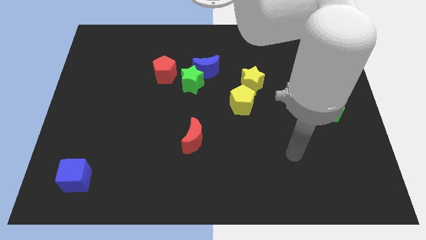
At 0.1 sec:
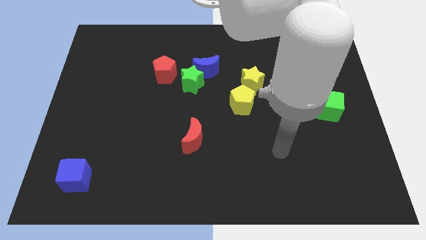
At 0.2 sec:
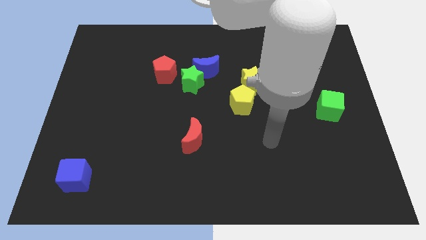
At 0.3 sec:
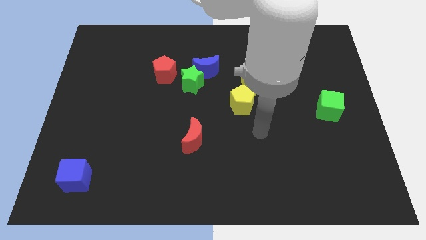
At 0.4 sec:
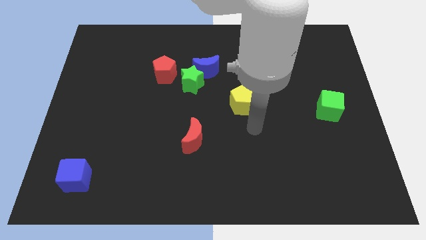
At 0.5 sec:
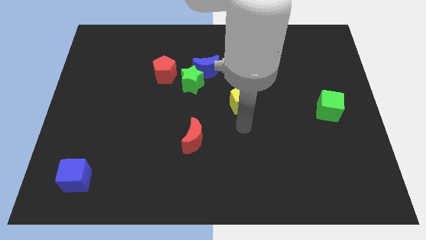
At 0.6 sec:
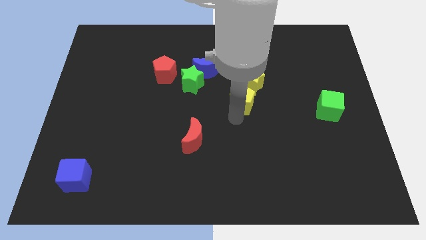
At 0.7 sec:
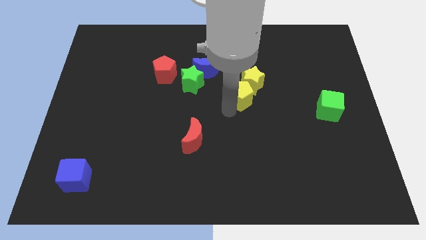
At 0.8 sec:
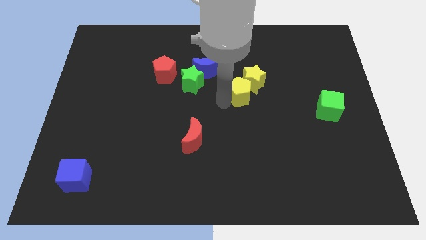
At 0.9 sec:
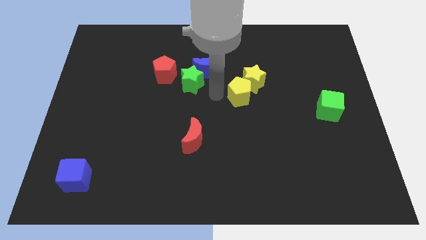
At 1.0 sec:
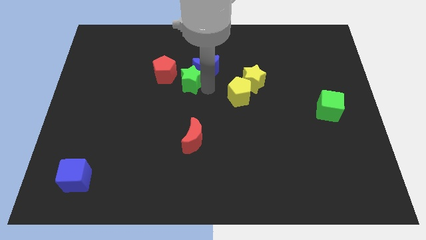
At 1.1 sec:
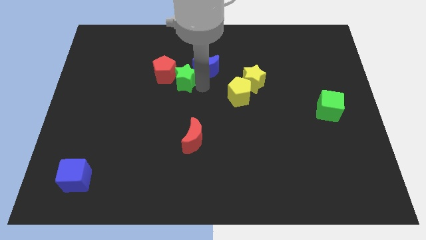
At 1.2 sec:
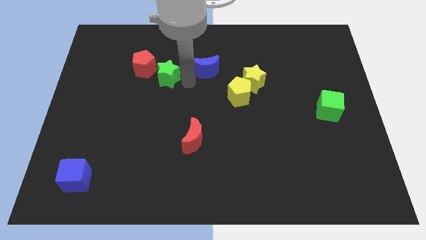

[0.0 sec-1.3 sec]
move the blue moon away from the green star

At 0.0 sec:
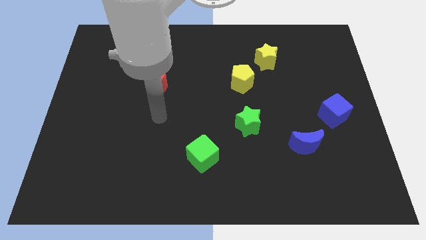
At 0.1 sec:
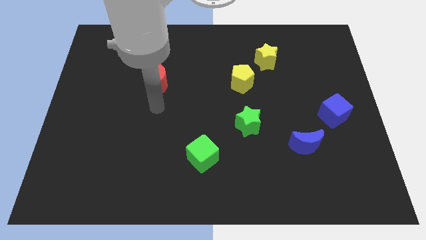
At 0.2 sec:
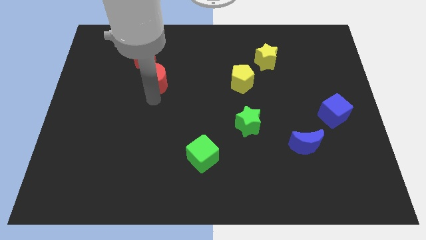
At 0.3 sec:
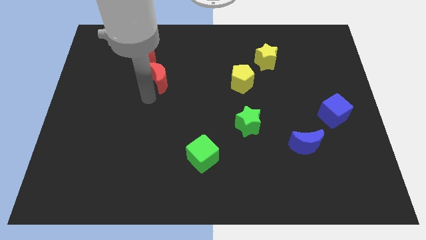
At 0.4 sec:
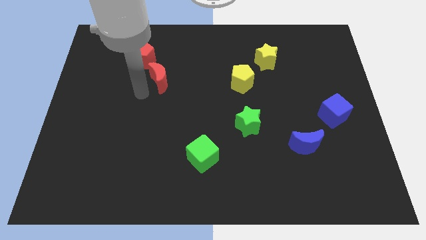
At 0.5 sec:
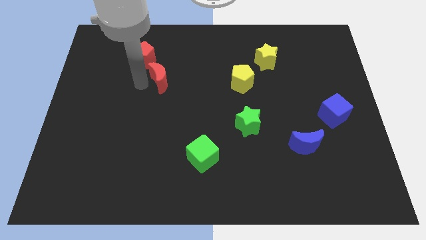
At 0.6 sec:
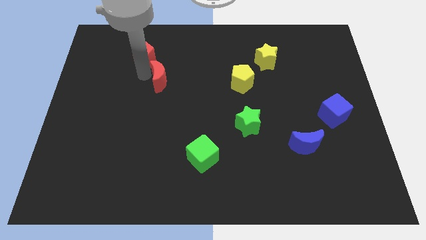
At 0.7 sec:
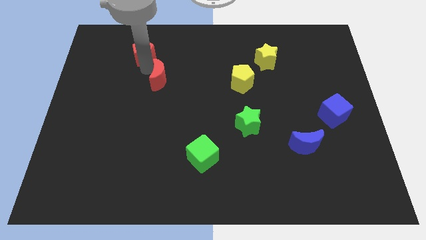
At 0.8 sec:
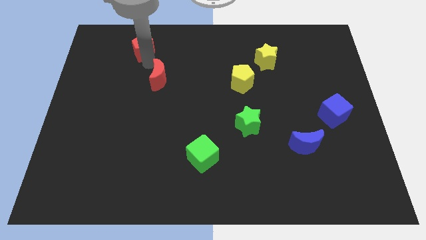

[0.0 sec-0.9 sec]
move the red moon away from the red pentagon

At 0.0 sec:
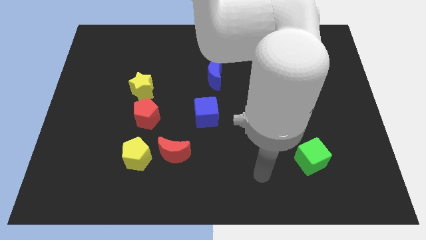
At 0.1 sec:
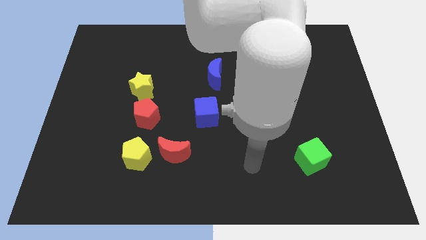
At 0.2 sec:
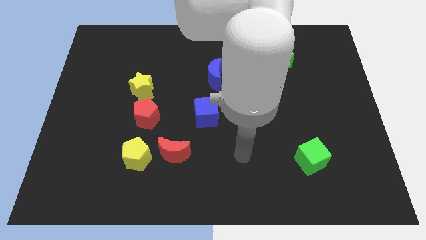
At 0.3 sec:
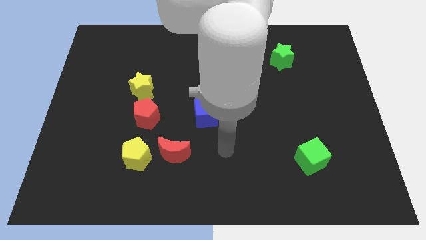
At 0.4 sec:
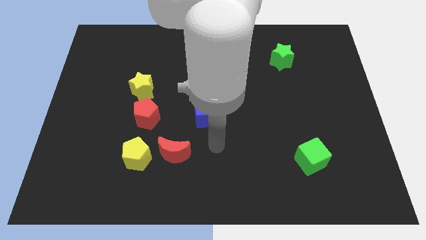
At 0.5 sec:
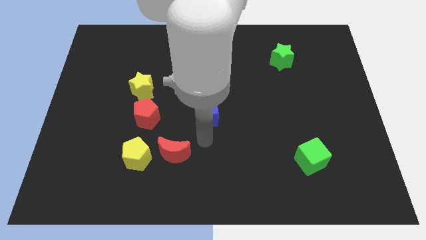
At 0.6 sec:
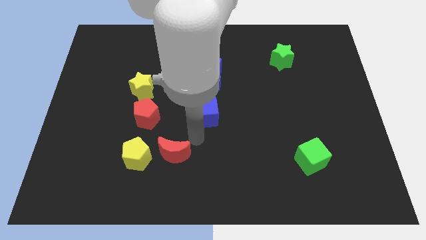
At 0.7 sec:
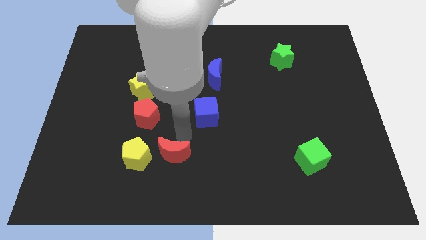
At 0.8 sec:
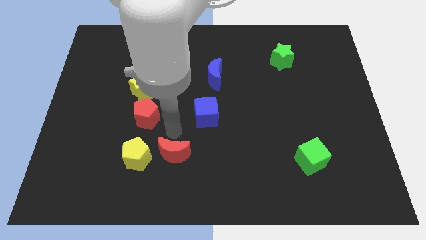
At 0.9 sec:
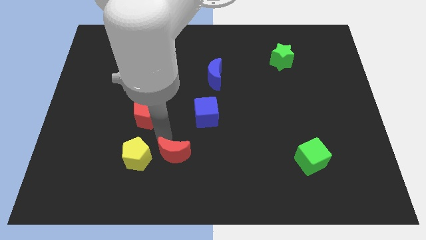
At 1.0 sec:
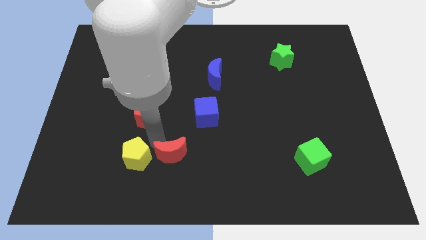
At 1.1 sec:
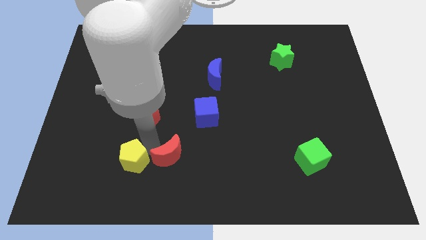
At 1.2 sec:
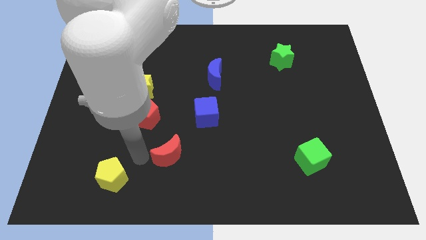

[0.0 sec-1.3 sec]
move the red moon away from the yellow pentagon

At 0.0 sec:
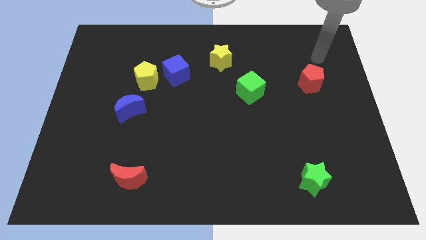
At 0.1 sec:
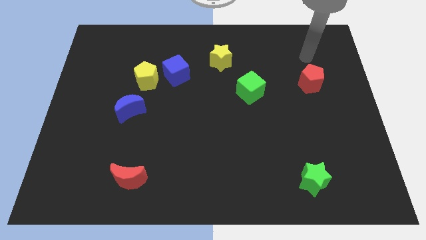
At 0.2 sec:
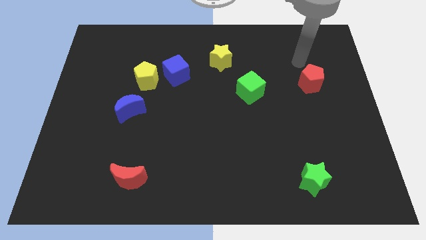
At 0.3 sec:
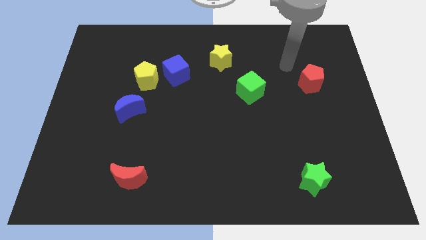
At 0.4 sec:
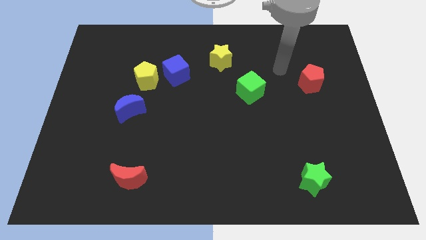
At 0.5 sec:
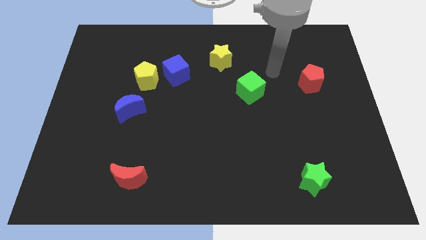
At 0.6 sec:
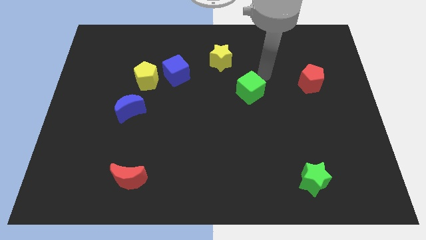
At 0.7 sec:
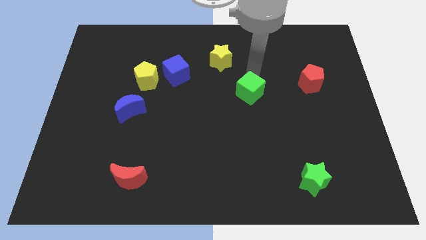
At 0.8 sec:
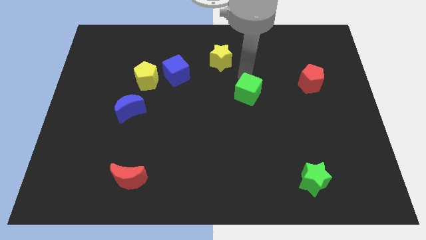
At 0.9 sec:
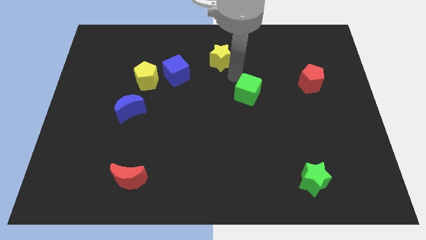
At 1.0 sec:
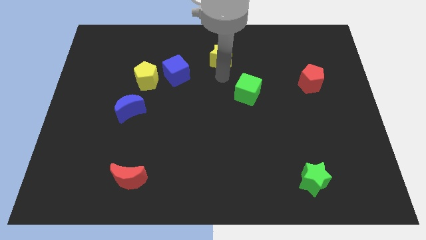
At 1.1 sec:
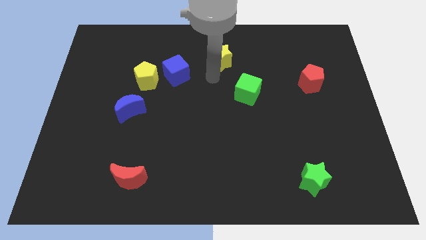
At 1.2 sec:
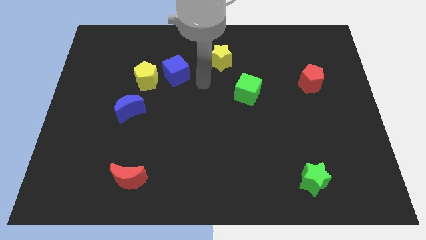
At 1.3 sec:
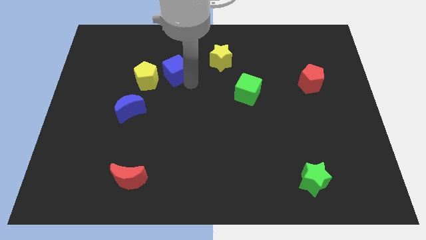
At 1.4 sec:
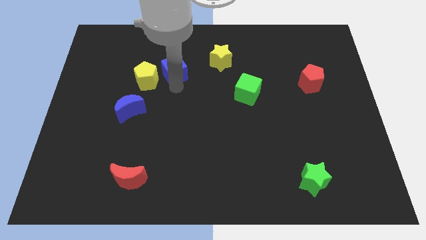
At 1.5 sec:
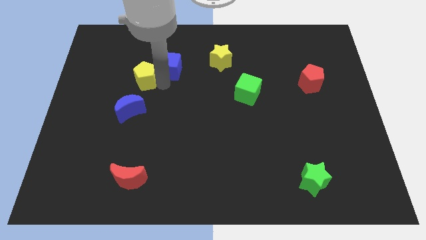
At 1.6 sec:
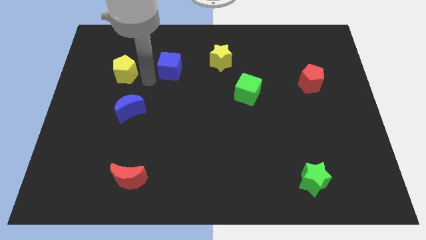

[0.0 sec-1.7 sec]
move the blue cube away from the yellow pentagon

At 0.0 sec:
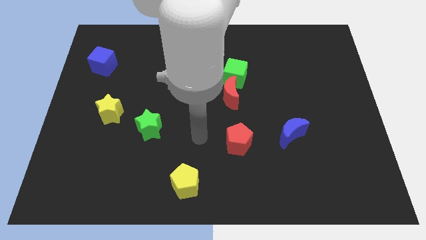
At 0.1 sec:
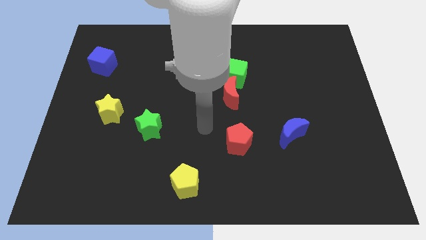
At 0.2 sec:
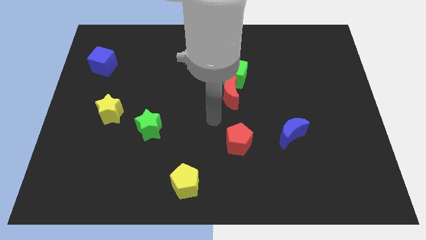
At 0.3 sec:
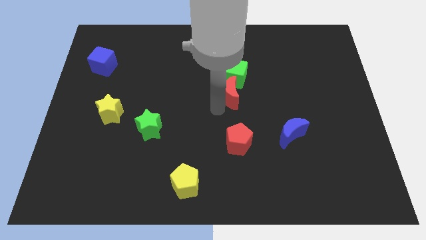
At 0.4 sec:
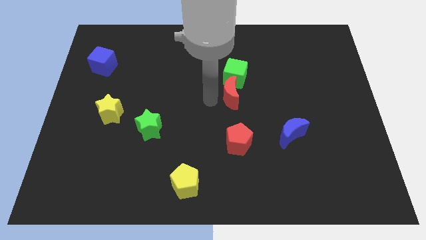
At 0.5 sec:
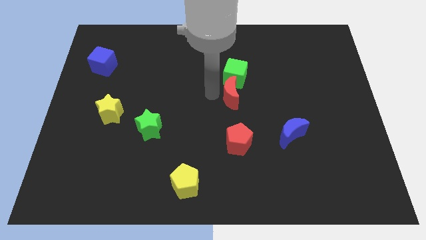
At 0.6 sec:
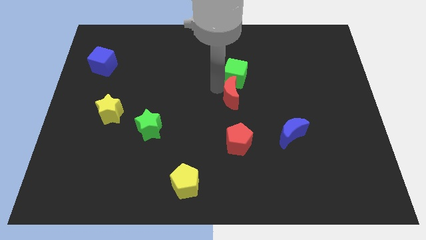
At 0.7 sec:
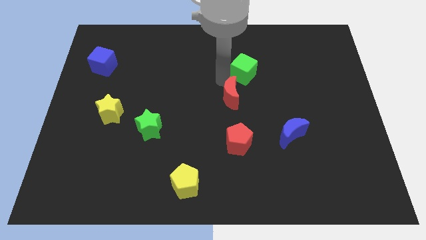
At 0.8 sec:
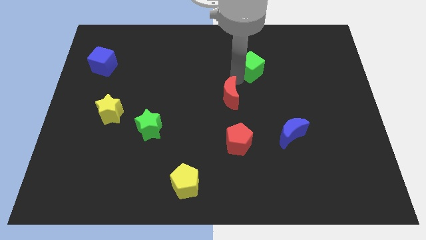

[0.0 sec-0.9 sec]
separate the red moon from the green cube

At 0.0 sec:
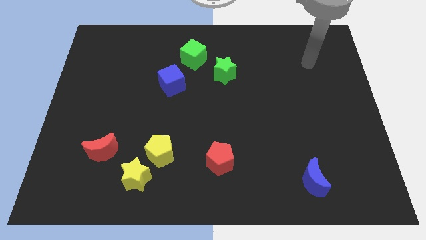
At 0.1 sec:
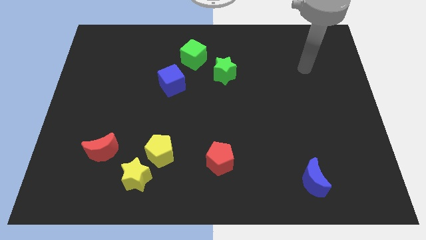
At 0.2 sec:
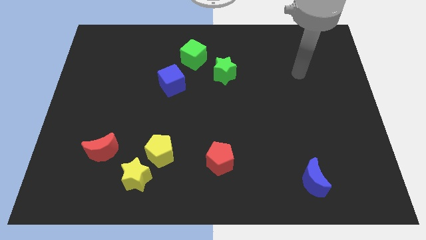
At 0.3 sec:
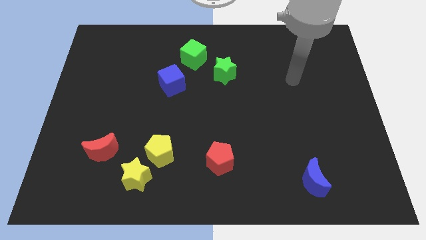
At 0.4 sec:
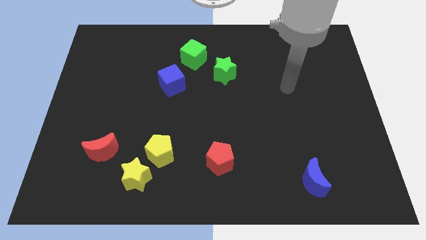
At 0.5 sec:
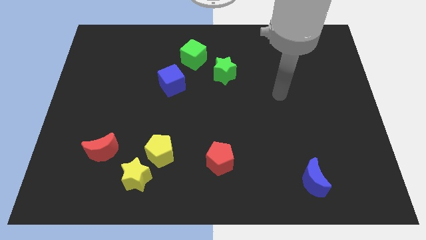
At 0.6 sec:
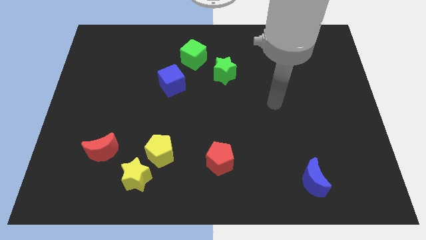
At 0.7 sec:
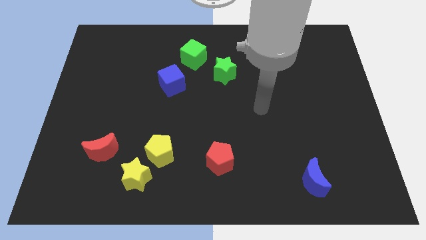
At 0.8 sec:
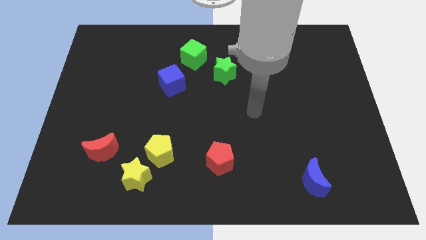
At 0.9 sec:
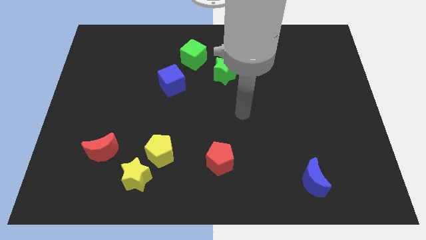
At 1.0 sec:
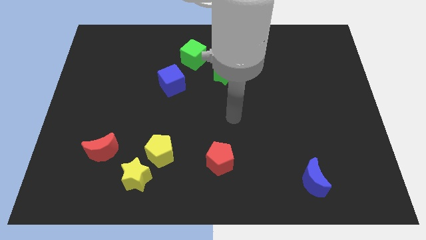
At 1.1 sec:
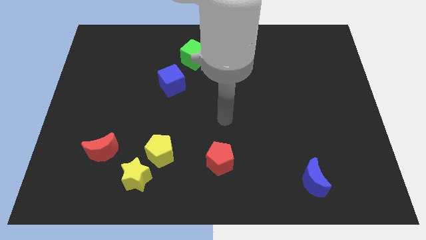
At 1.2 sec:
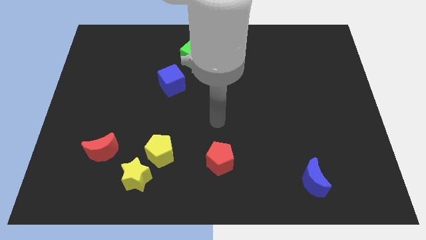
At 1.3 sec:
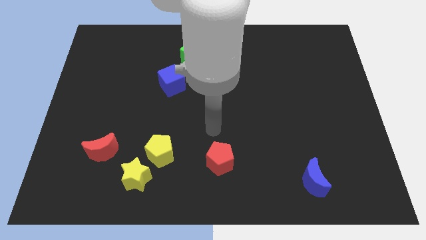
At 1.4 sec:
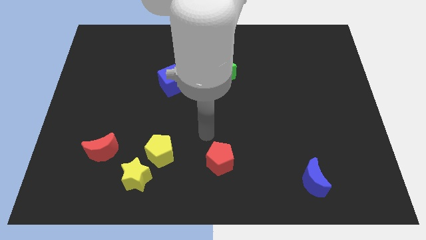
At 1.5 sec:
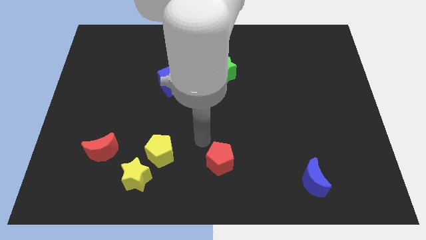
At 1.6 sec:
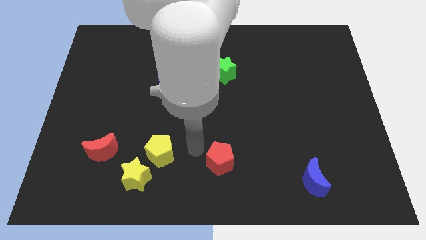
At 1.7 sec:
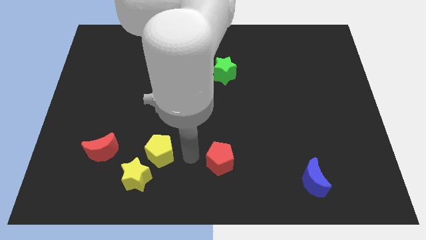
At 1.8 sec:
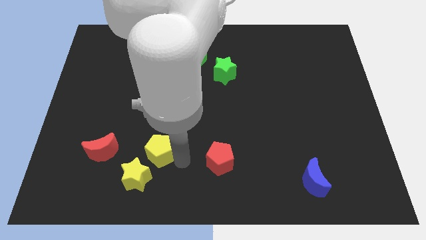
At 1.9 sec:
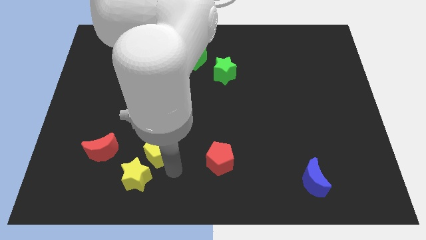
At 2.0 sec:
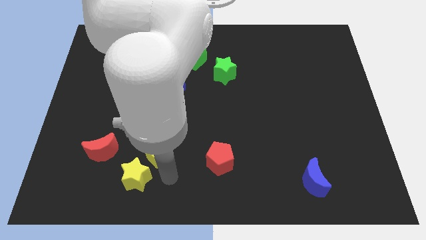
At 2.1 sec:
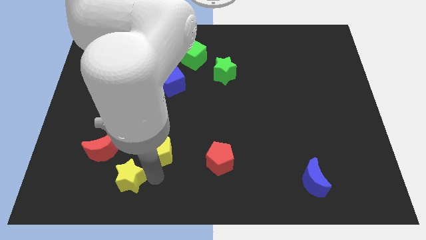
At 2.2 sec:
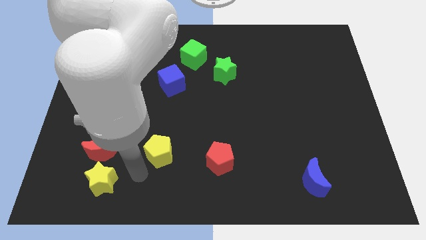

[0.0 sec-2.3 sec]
pull the yellow pentagon apart from the yellow star

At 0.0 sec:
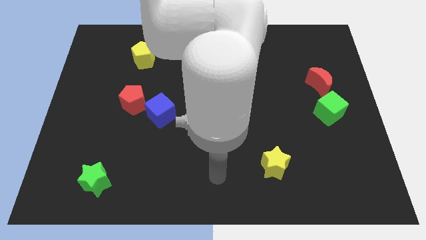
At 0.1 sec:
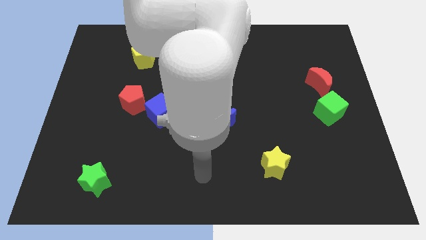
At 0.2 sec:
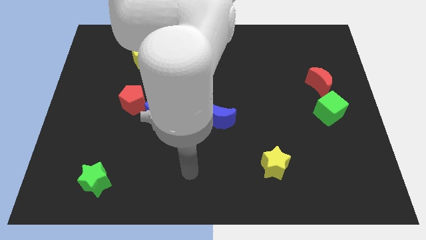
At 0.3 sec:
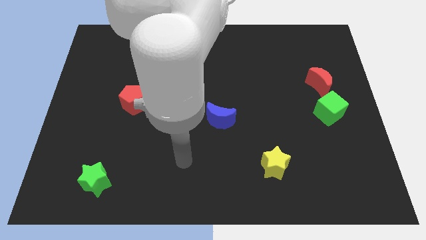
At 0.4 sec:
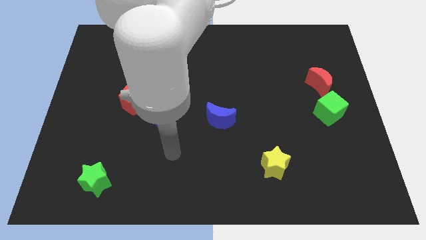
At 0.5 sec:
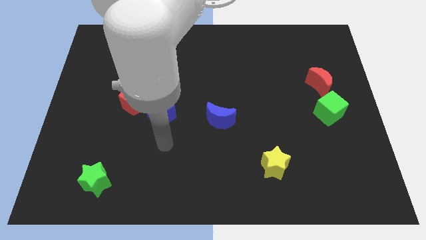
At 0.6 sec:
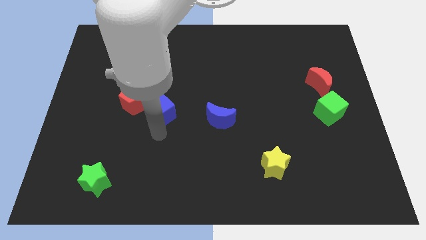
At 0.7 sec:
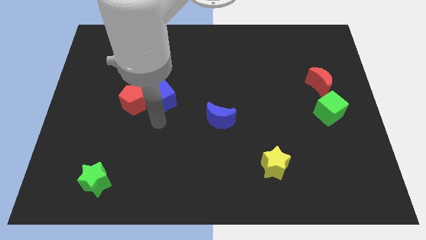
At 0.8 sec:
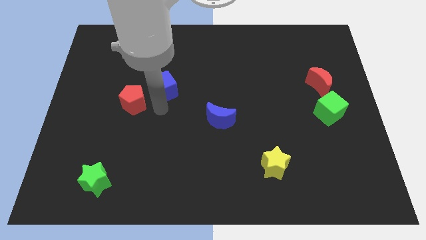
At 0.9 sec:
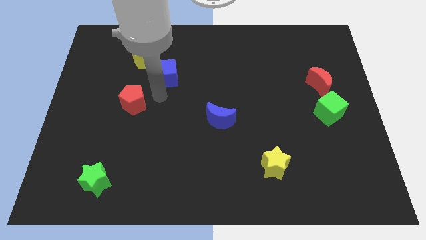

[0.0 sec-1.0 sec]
pull the red pentagon apart from the blue cube
